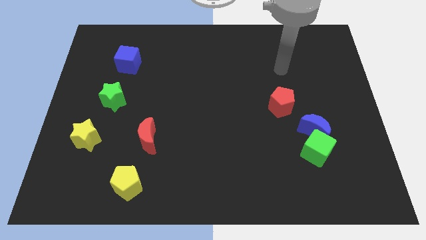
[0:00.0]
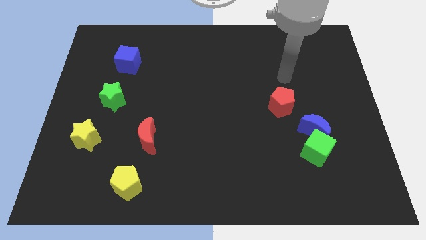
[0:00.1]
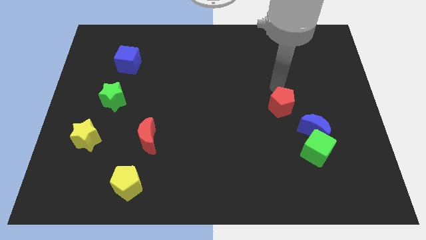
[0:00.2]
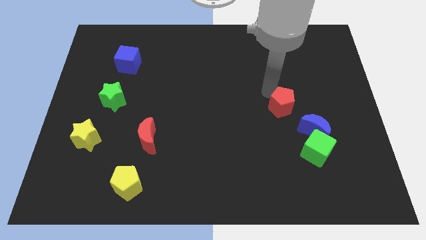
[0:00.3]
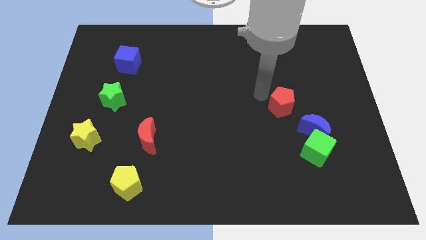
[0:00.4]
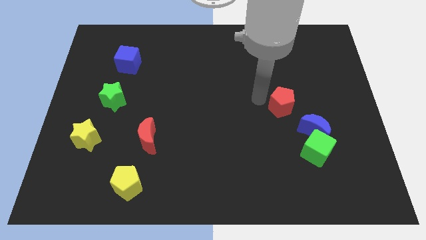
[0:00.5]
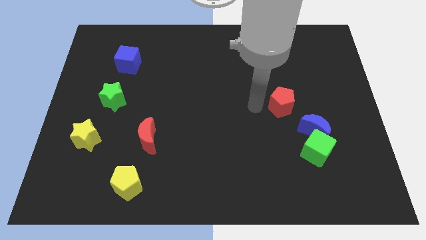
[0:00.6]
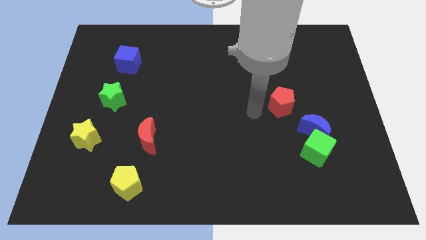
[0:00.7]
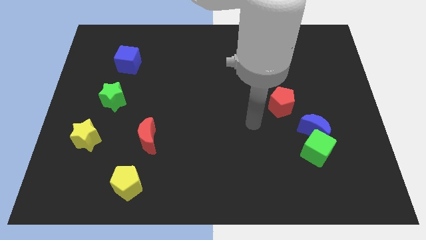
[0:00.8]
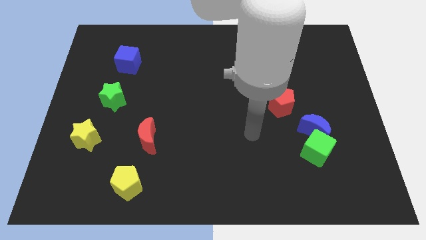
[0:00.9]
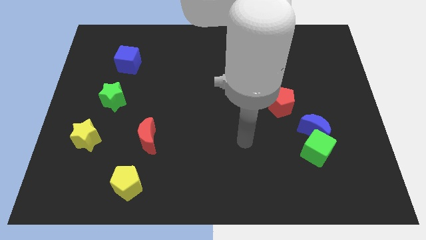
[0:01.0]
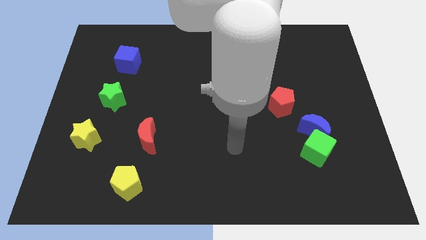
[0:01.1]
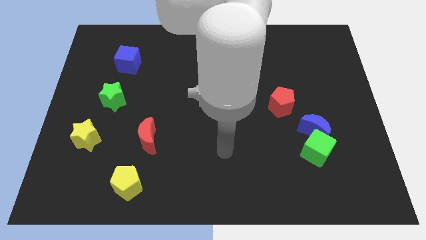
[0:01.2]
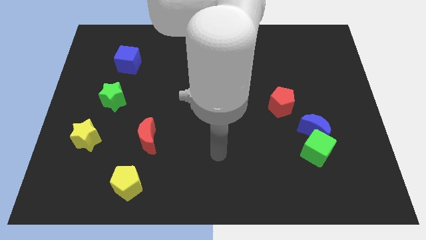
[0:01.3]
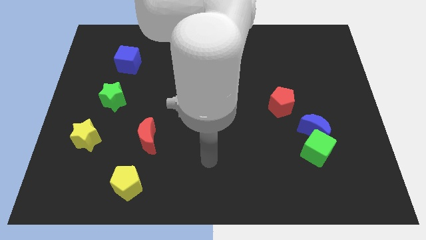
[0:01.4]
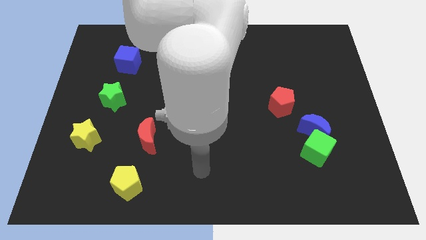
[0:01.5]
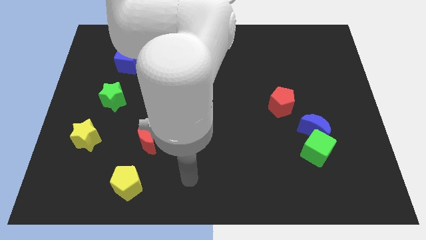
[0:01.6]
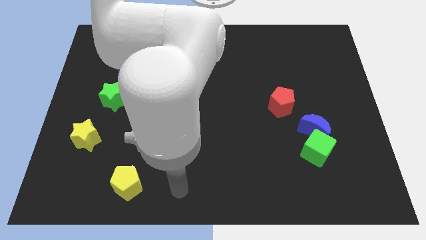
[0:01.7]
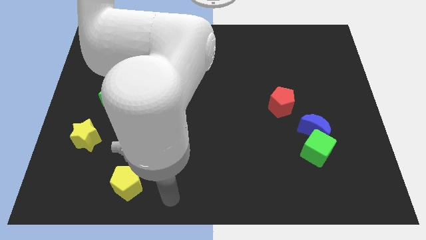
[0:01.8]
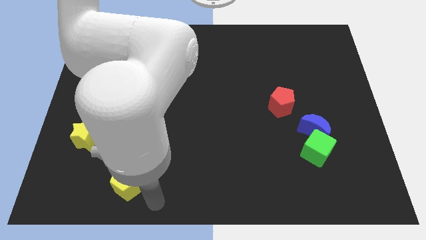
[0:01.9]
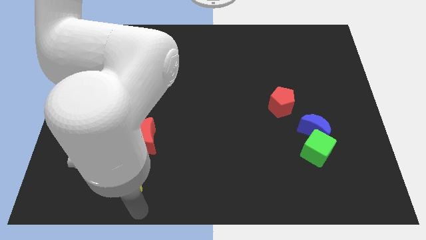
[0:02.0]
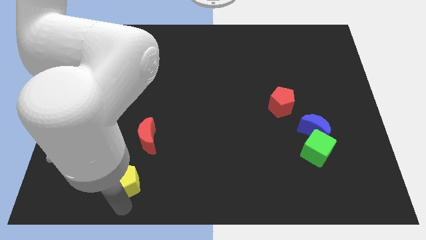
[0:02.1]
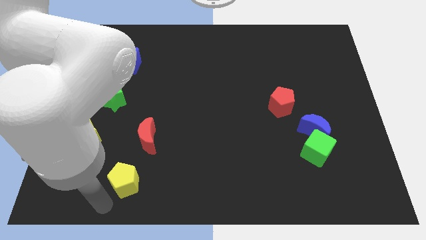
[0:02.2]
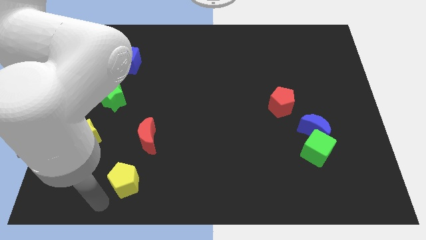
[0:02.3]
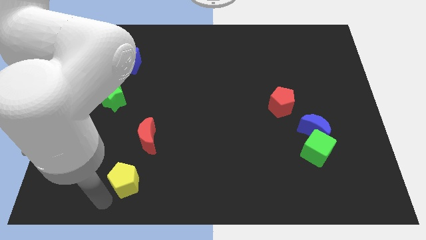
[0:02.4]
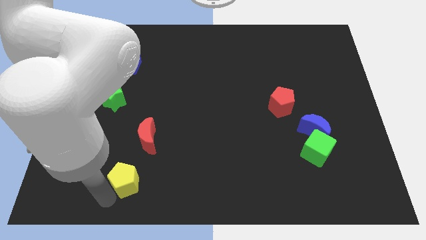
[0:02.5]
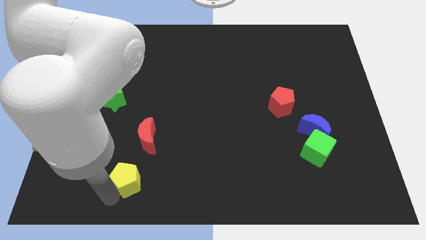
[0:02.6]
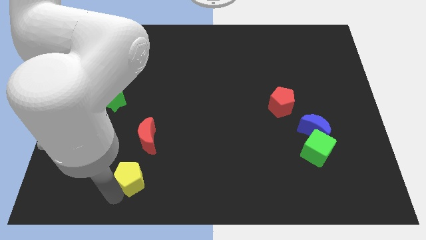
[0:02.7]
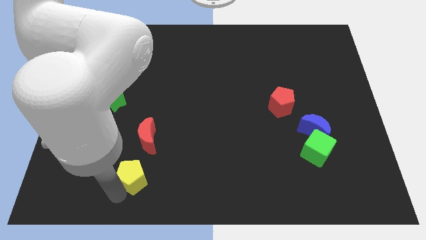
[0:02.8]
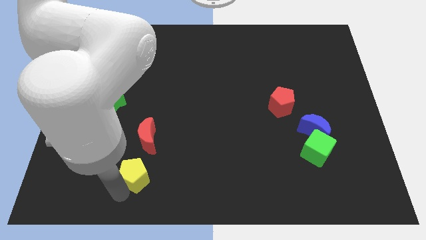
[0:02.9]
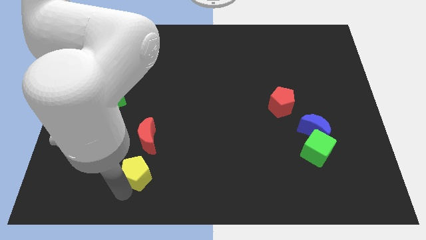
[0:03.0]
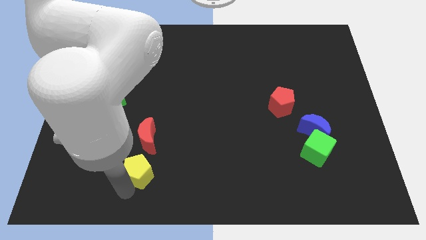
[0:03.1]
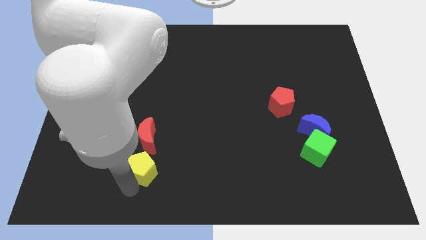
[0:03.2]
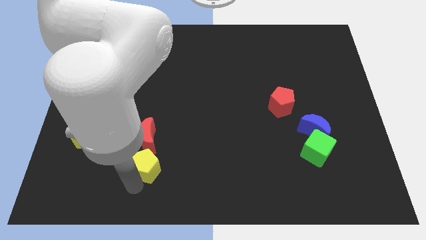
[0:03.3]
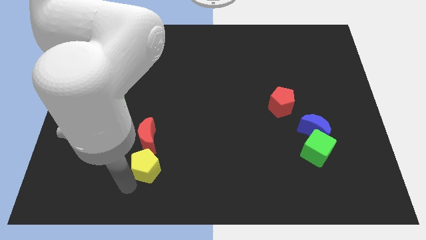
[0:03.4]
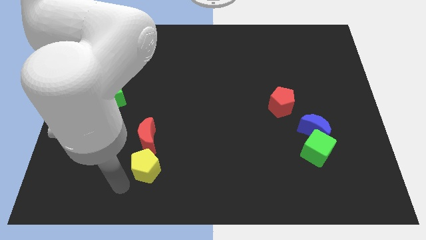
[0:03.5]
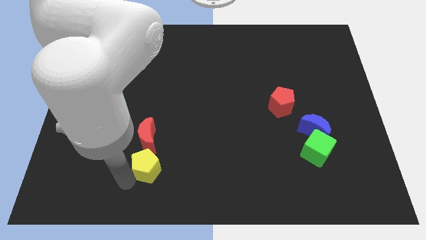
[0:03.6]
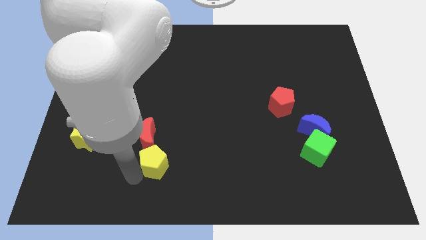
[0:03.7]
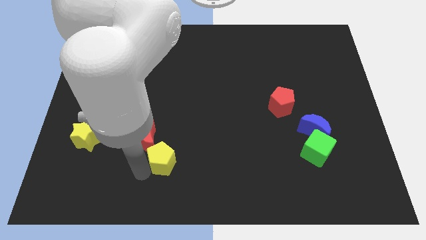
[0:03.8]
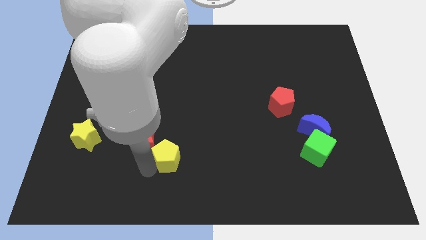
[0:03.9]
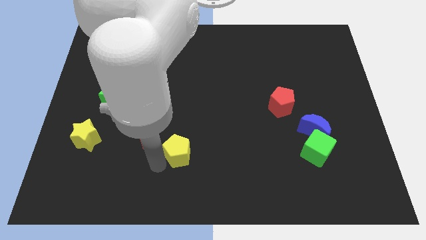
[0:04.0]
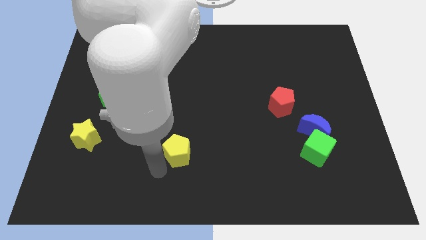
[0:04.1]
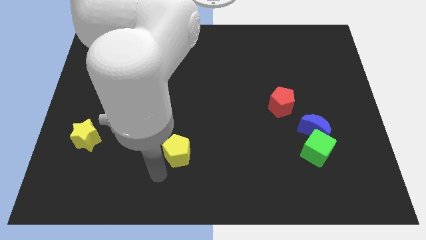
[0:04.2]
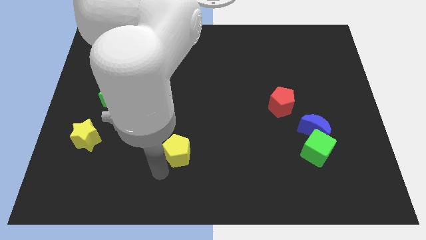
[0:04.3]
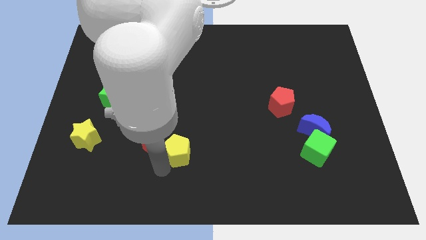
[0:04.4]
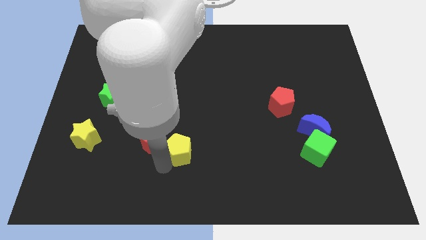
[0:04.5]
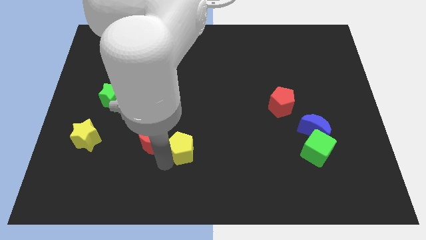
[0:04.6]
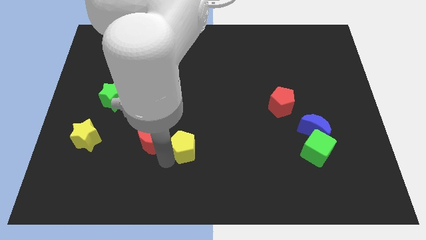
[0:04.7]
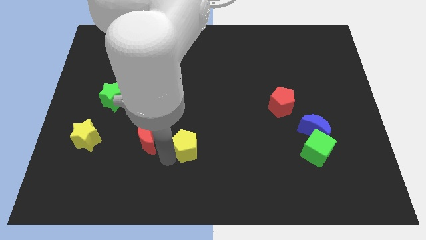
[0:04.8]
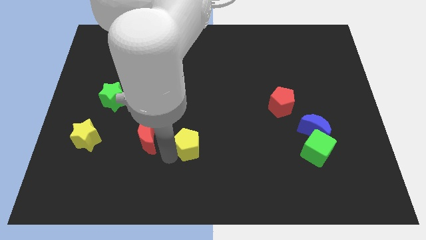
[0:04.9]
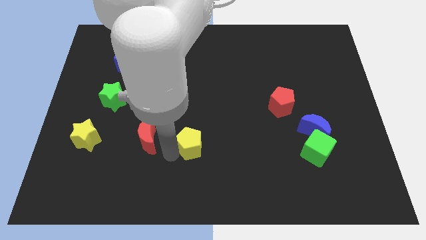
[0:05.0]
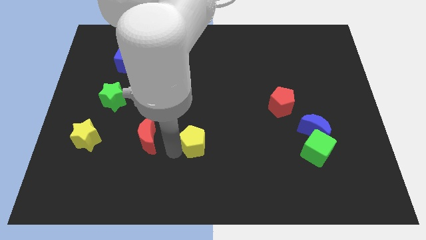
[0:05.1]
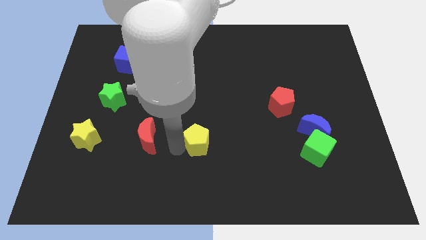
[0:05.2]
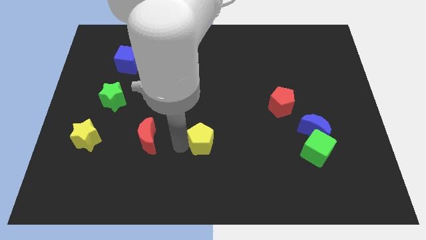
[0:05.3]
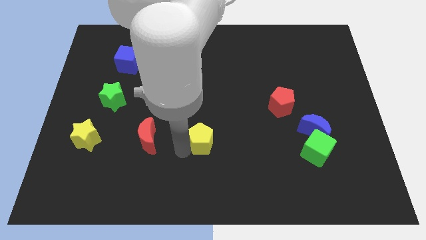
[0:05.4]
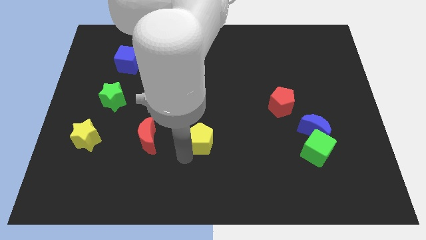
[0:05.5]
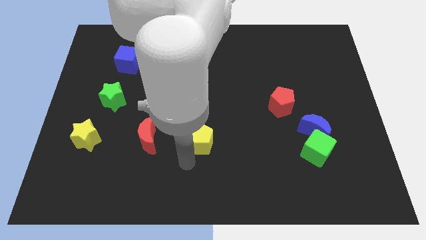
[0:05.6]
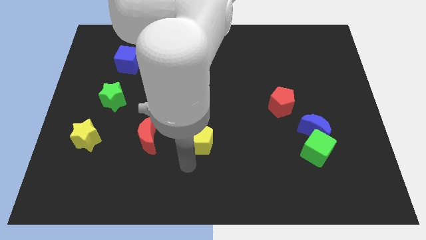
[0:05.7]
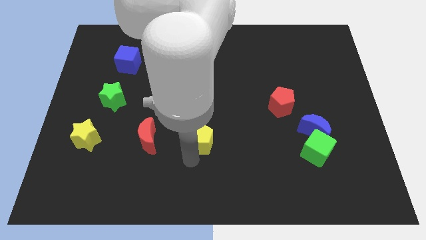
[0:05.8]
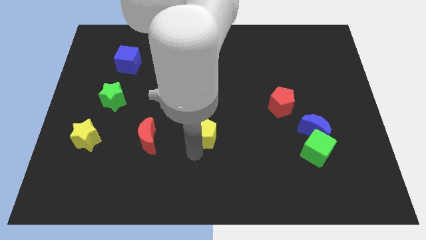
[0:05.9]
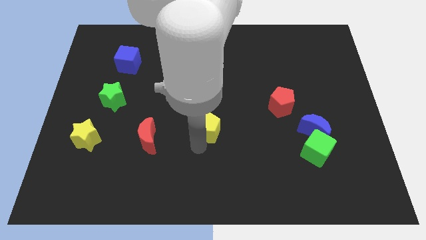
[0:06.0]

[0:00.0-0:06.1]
move the yellow pentagon upwards and right diagonally

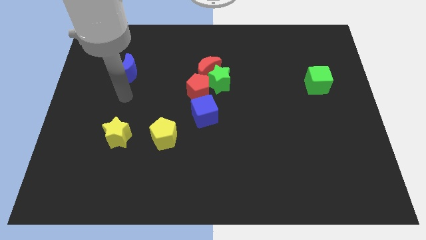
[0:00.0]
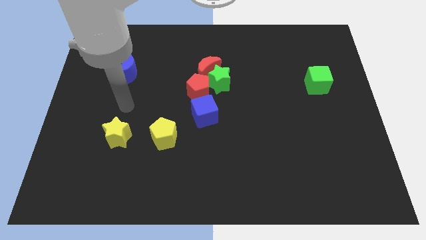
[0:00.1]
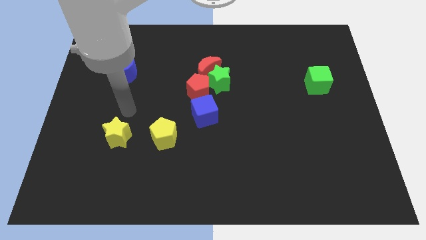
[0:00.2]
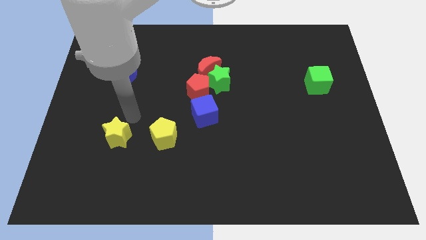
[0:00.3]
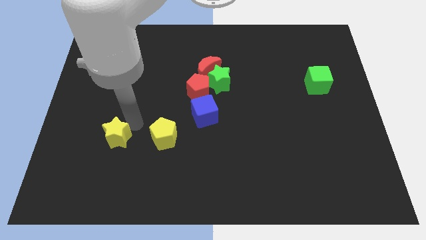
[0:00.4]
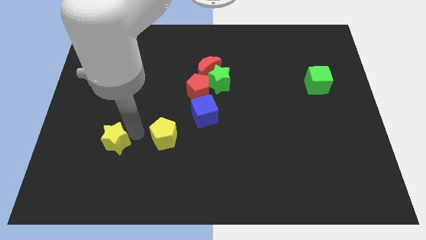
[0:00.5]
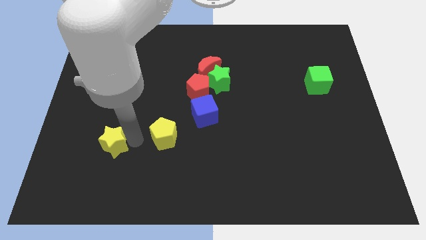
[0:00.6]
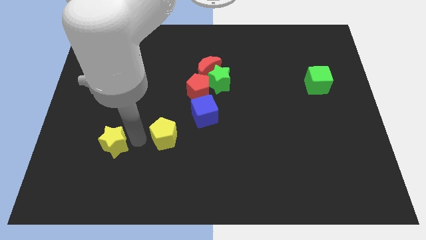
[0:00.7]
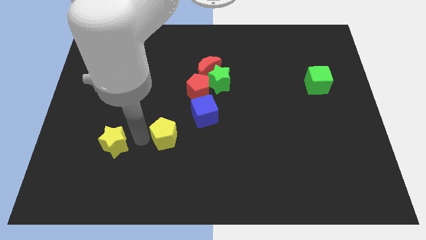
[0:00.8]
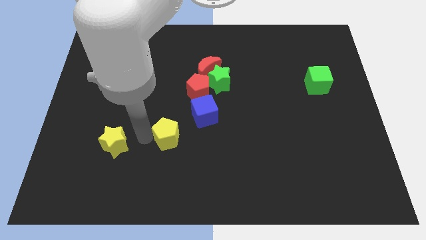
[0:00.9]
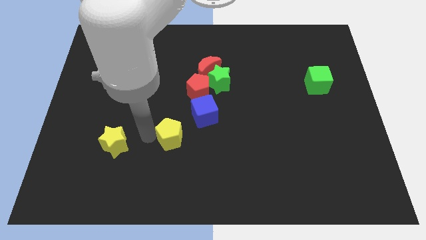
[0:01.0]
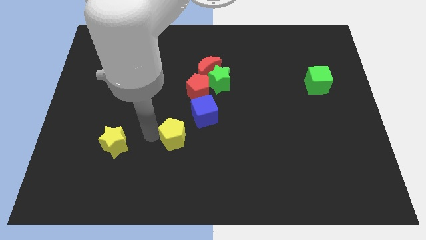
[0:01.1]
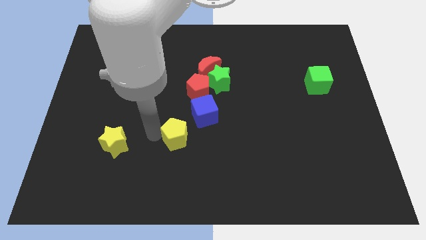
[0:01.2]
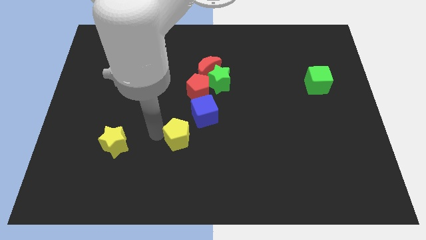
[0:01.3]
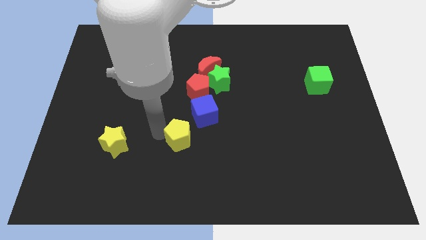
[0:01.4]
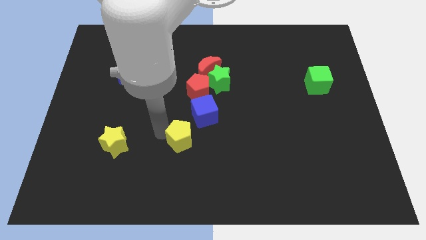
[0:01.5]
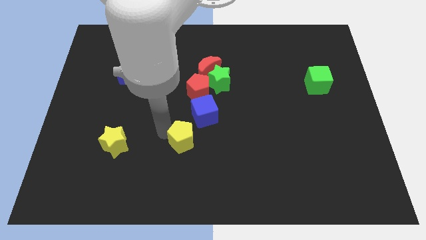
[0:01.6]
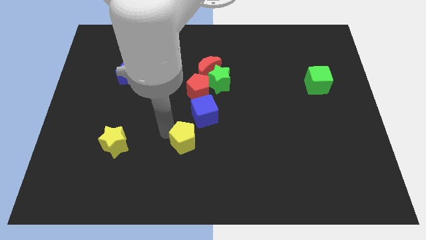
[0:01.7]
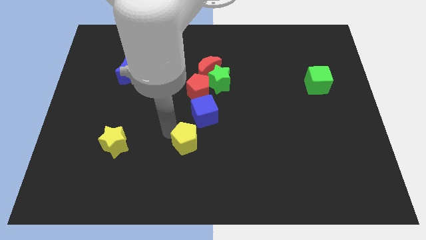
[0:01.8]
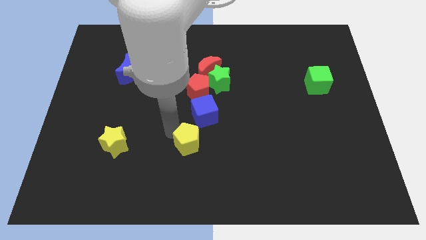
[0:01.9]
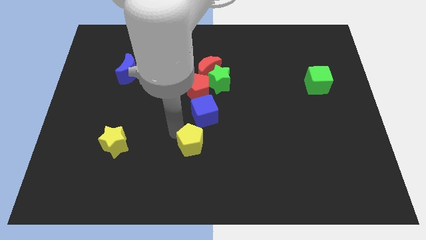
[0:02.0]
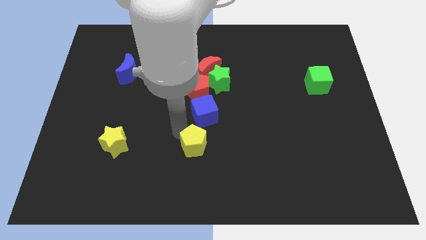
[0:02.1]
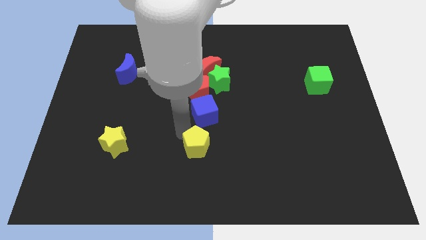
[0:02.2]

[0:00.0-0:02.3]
slide the yellow pentagon right slightly
